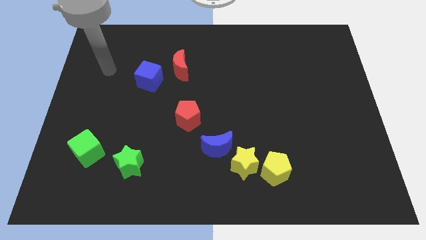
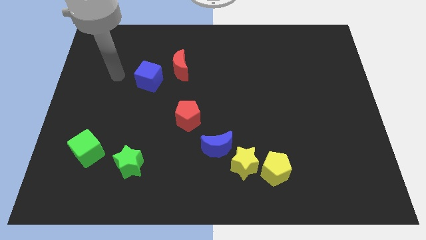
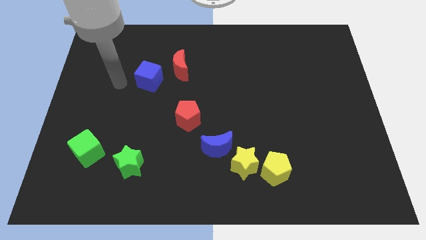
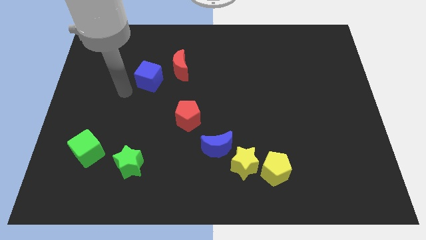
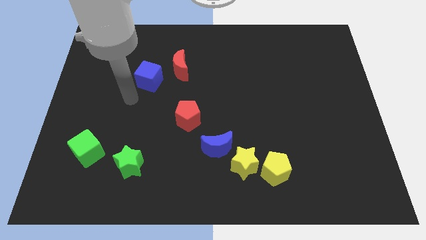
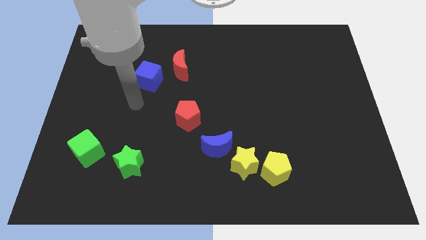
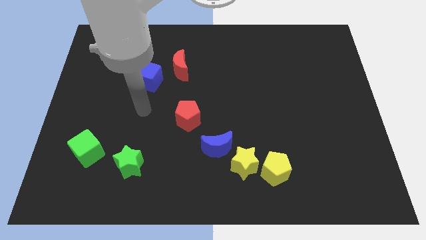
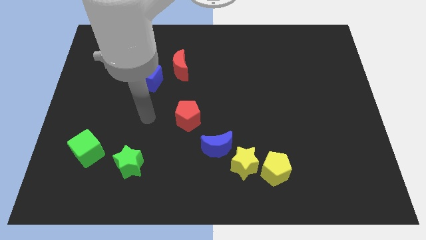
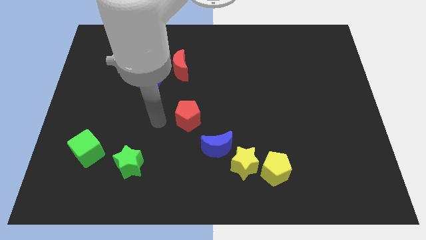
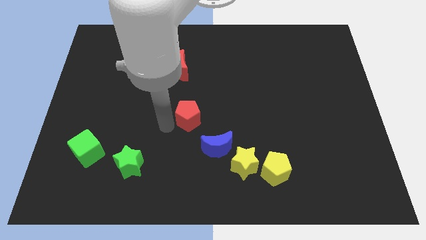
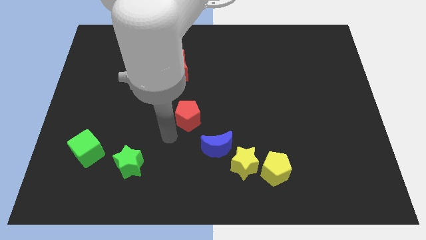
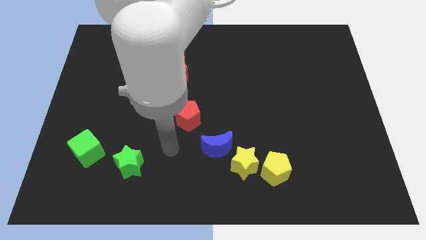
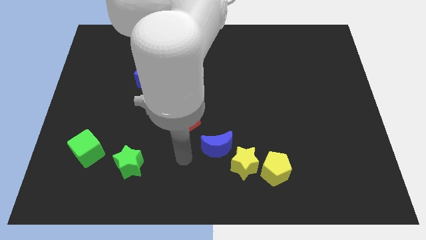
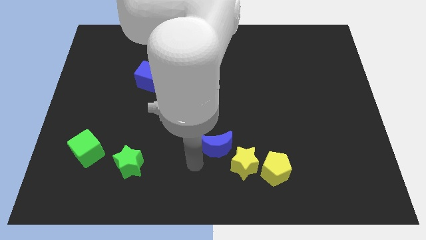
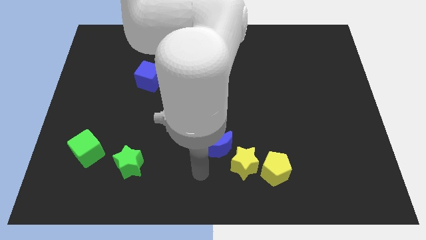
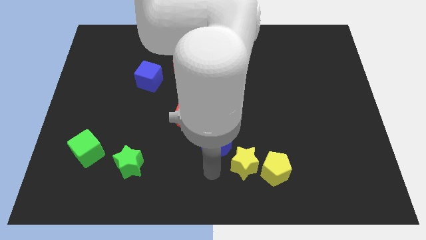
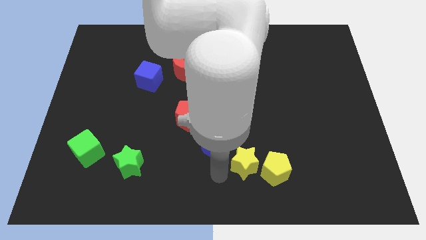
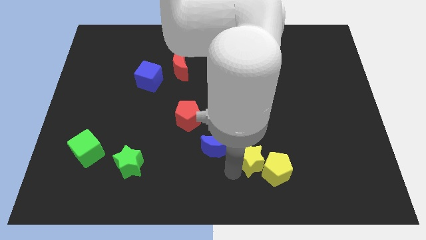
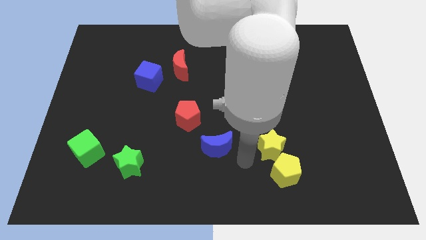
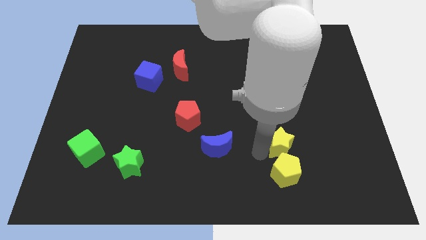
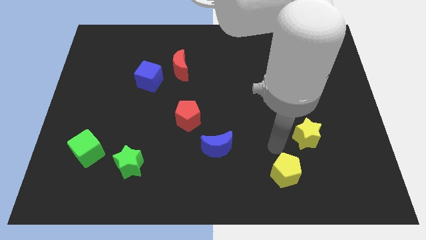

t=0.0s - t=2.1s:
pull the yellow pentagon apart from the yellow star

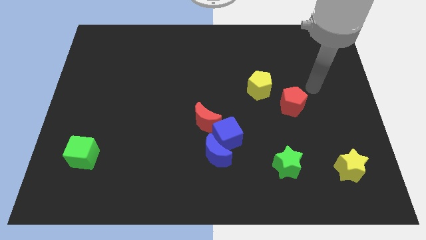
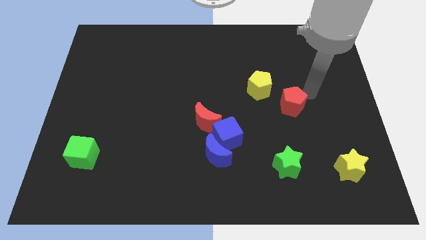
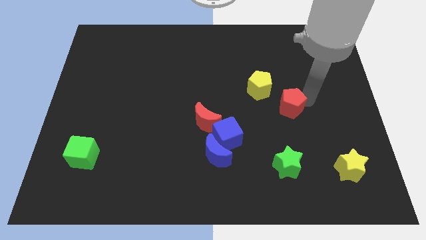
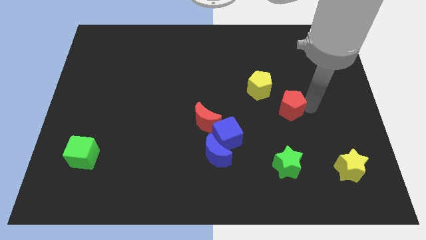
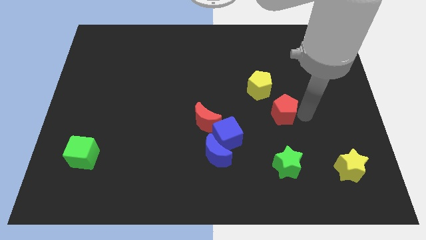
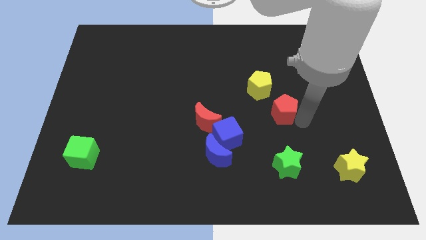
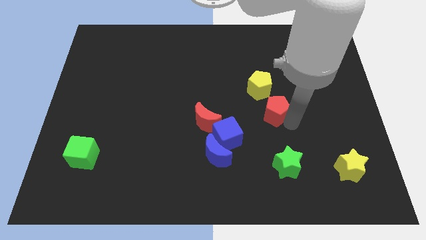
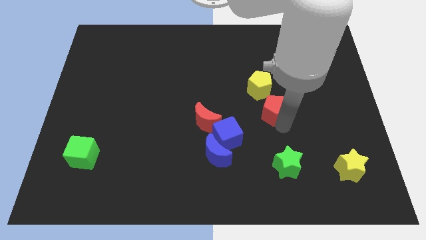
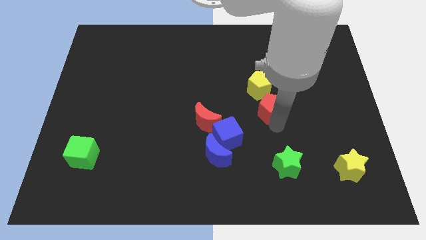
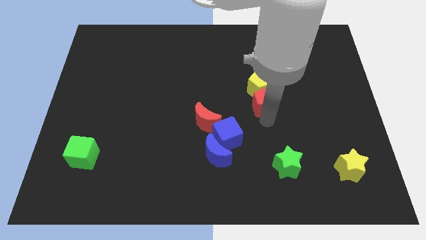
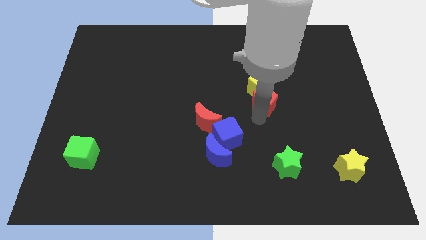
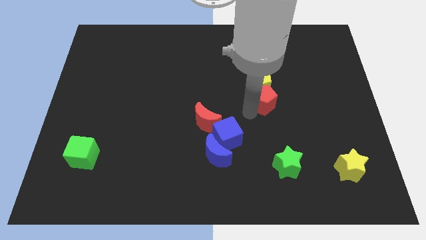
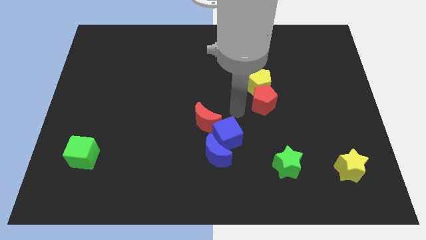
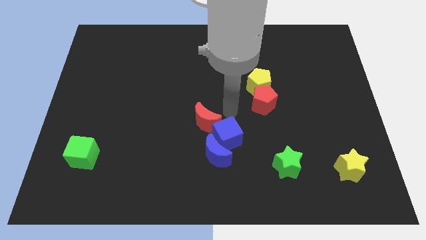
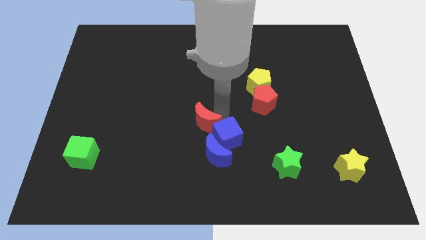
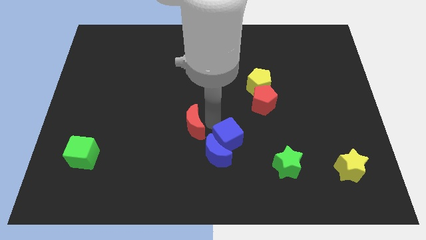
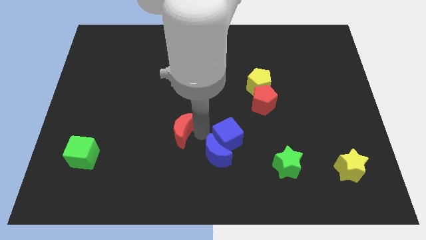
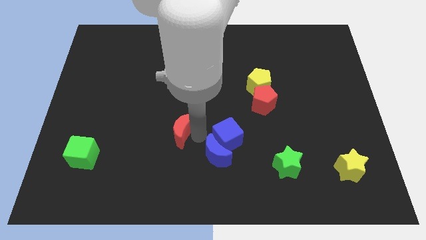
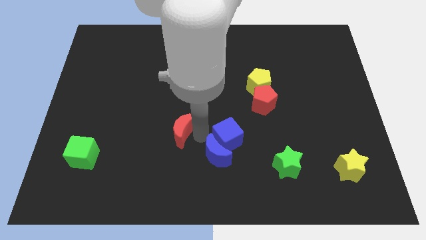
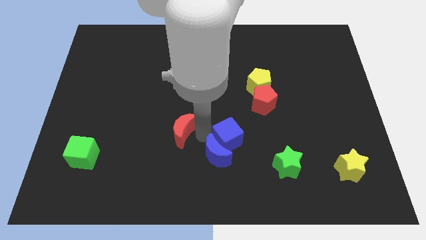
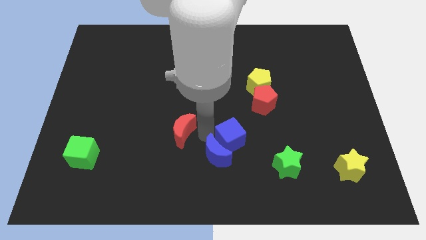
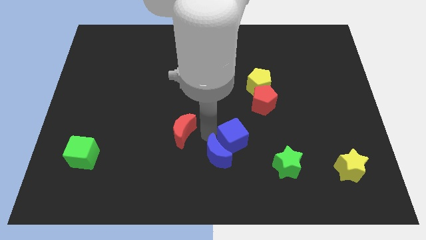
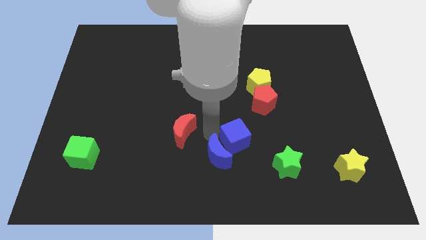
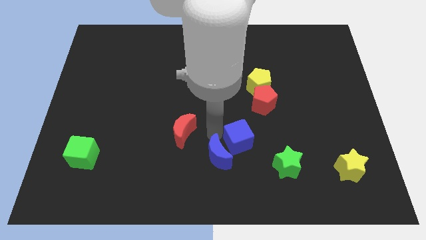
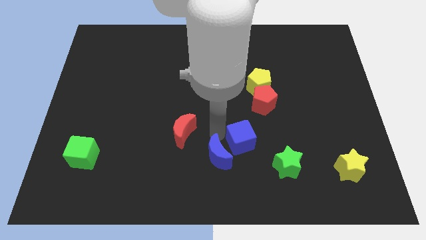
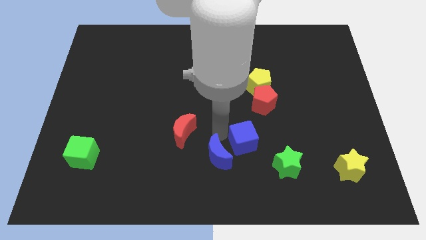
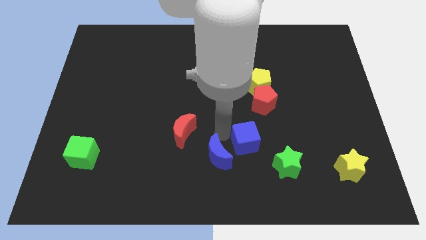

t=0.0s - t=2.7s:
move the blue cube away from the blue moon and red moon

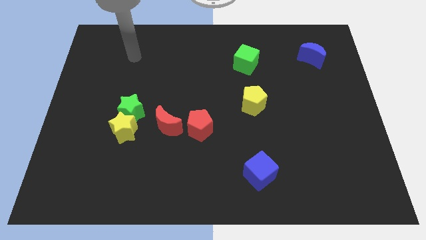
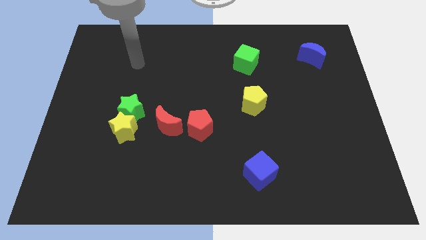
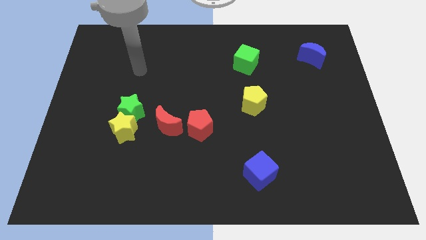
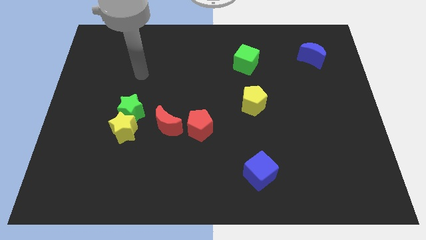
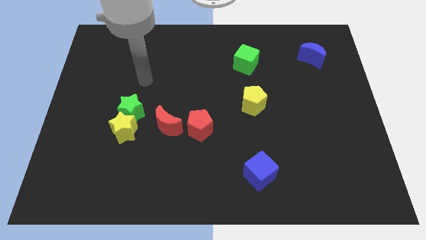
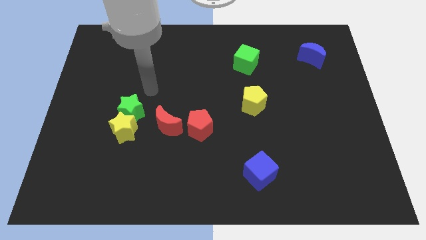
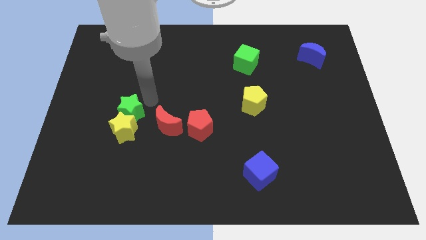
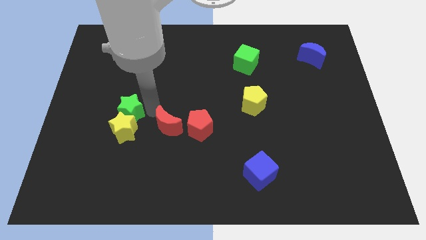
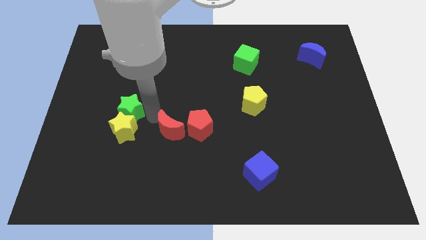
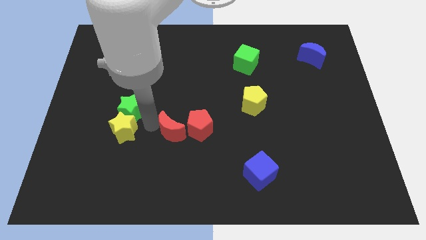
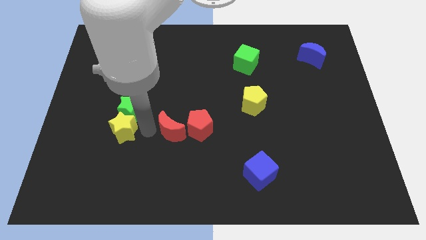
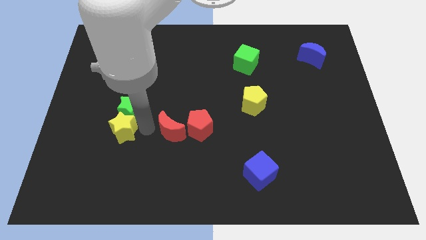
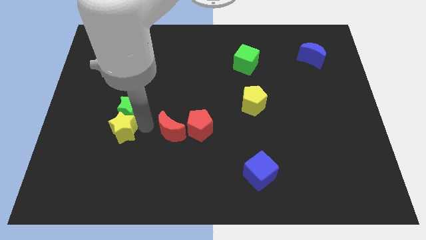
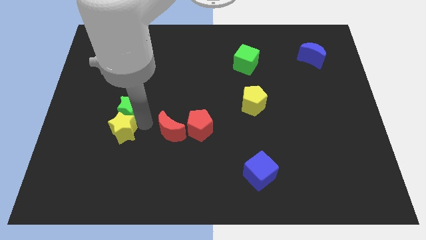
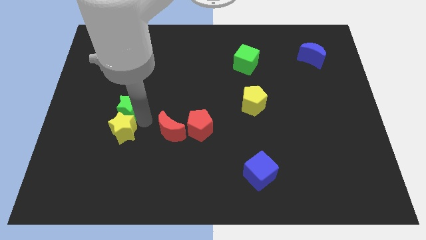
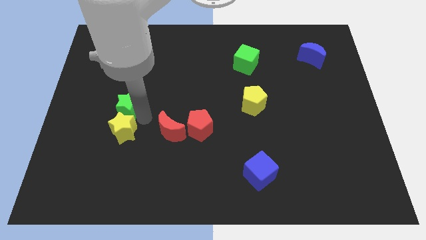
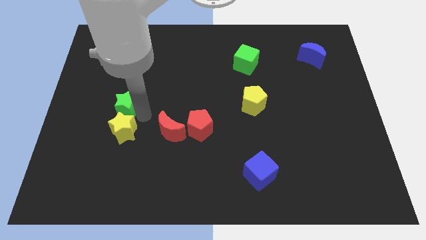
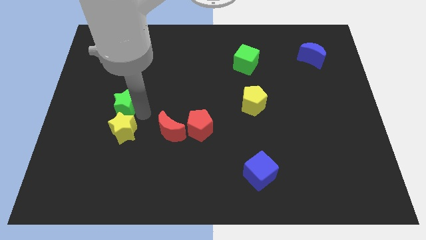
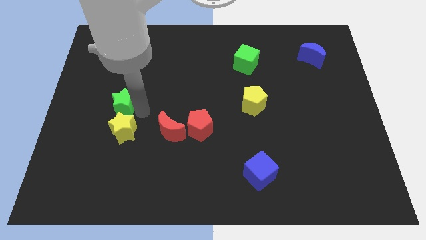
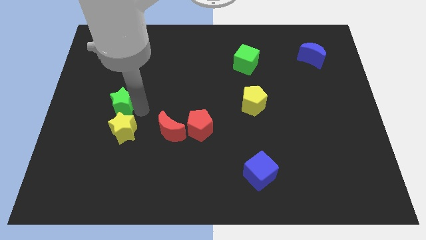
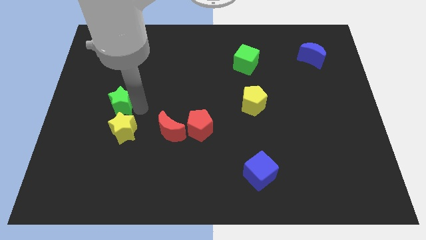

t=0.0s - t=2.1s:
pull the green star apart from the yellow star and red moon

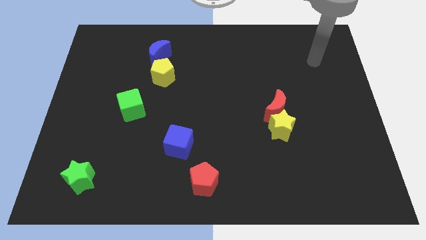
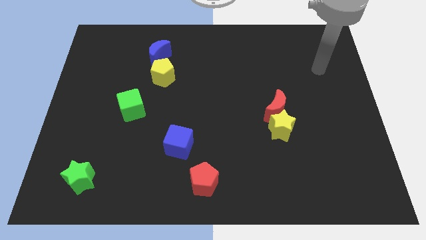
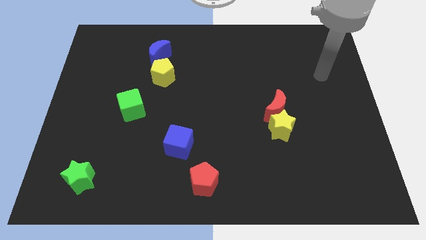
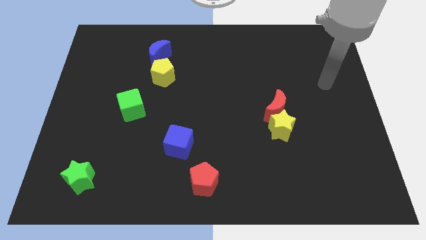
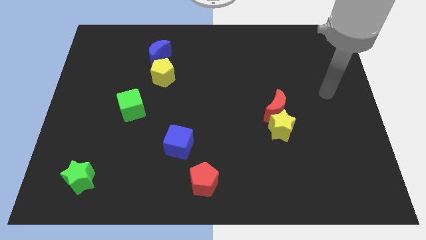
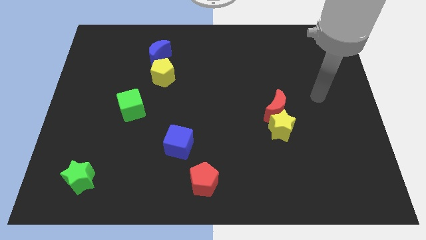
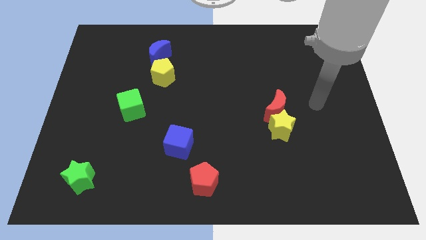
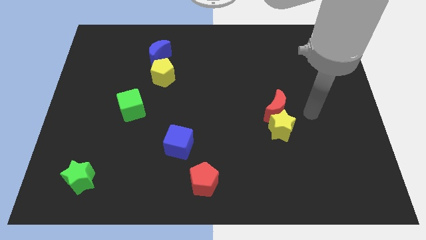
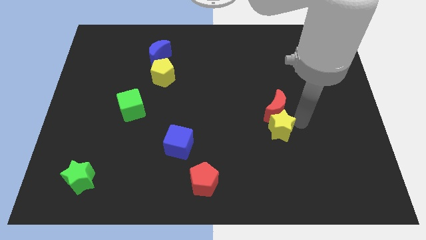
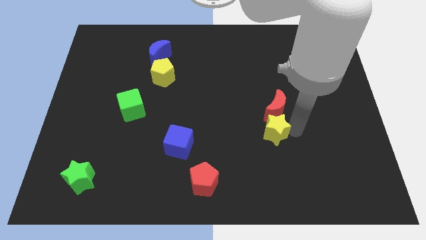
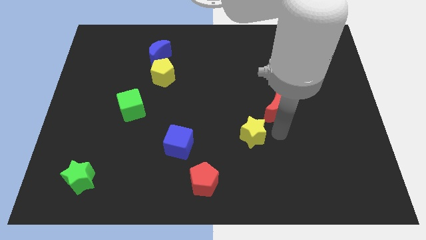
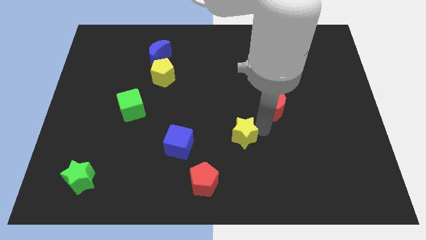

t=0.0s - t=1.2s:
separate the red moon from the yellow star

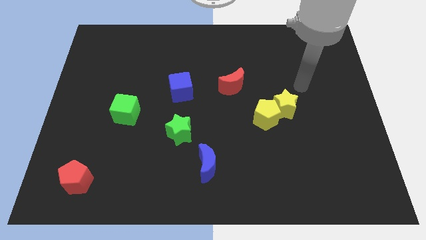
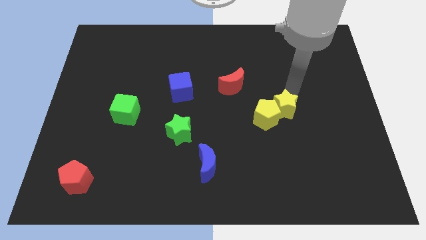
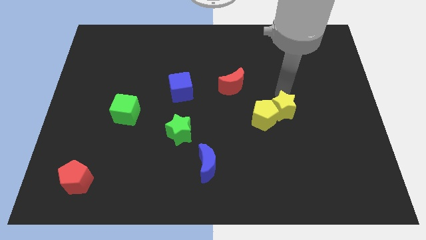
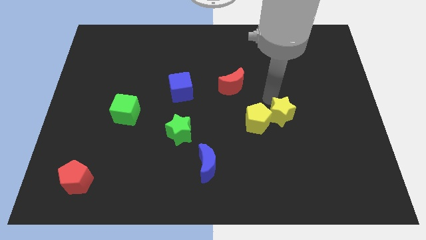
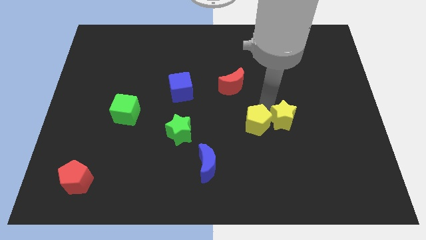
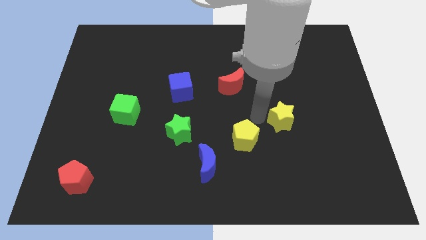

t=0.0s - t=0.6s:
move the yellow star away from the yellow pentagon

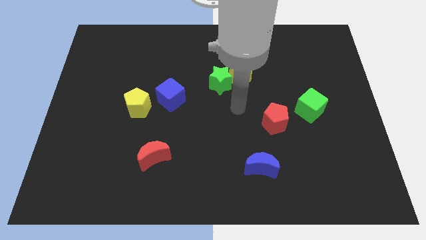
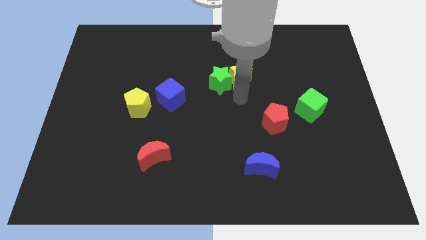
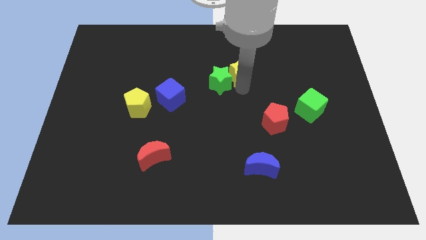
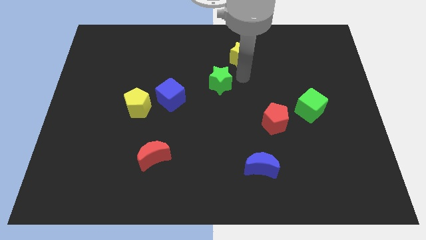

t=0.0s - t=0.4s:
move the green star away from the yellow star

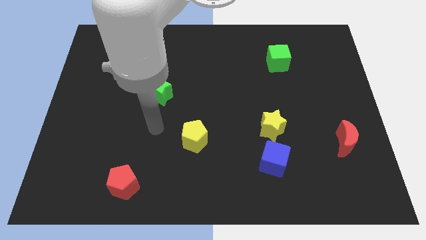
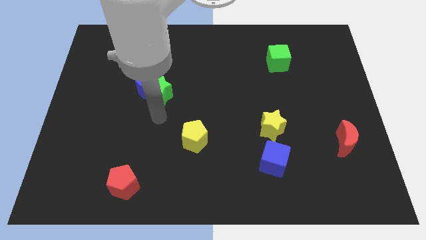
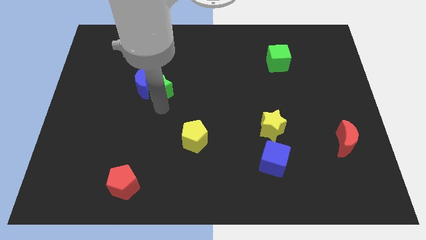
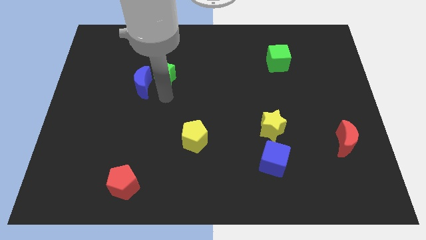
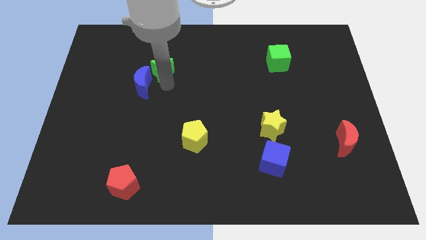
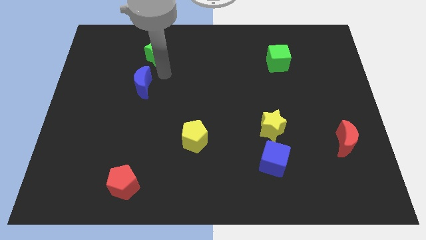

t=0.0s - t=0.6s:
separate the blue moon from the green star
